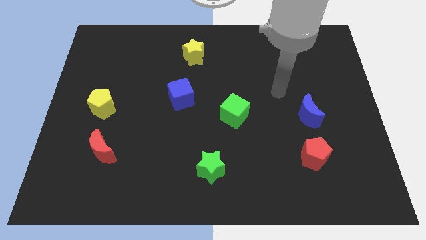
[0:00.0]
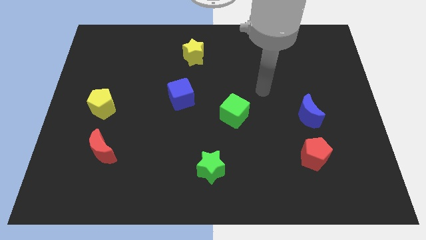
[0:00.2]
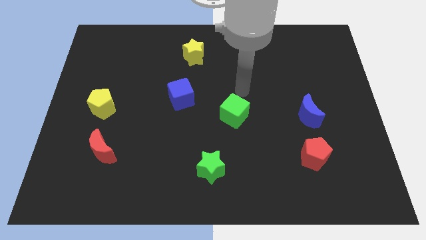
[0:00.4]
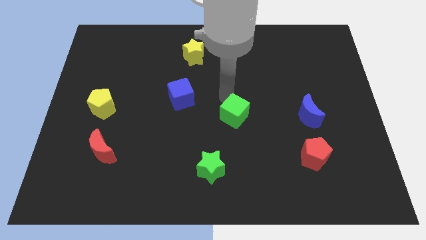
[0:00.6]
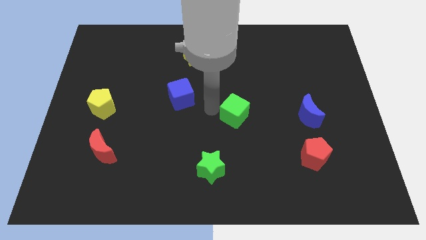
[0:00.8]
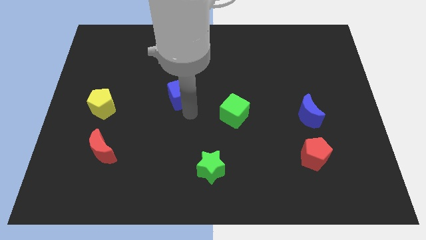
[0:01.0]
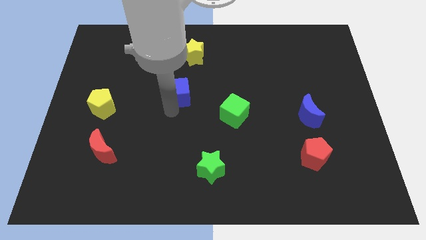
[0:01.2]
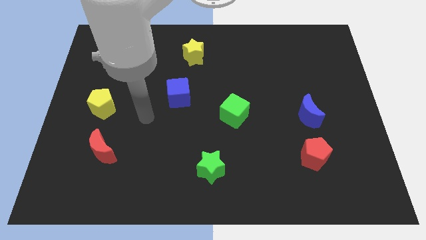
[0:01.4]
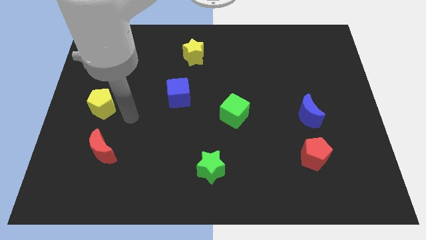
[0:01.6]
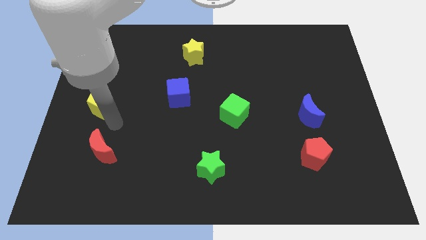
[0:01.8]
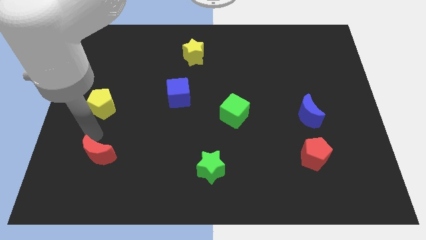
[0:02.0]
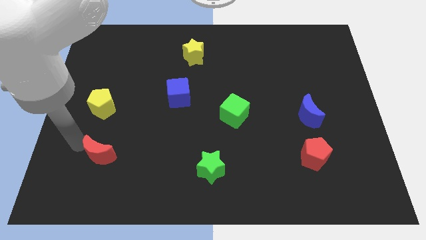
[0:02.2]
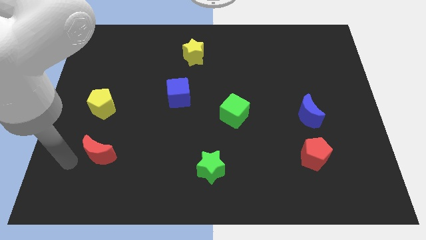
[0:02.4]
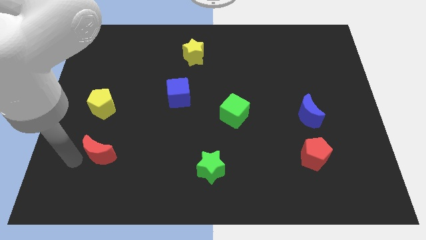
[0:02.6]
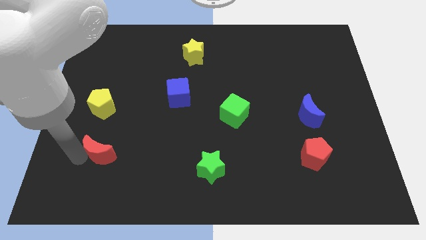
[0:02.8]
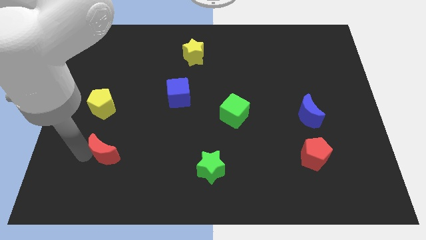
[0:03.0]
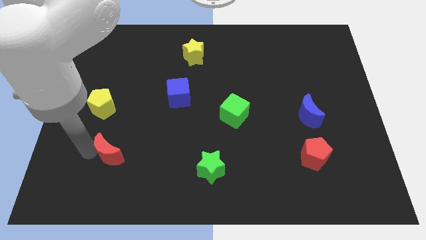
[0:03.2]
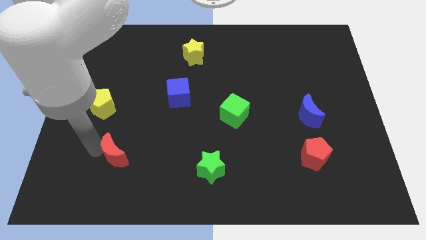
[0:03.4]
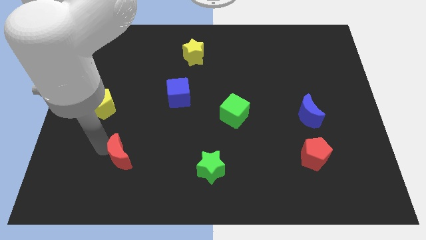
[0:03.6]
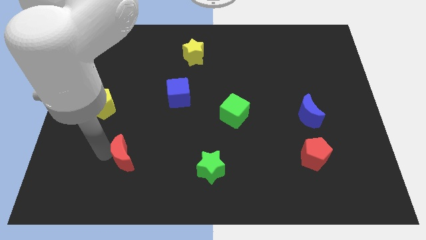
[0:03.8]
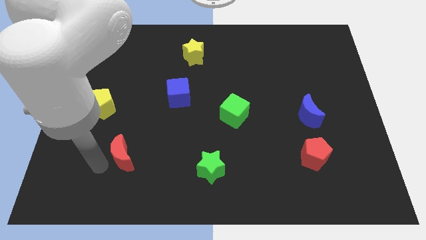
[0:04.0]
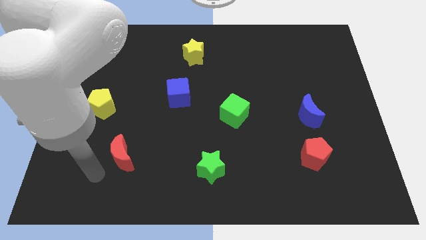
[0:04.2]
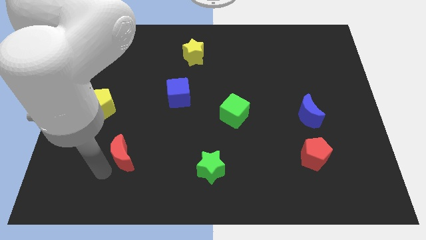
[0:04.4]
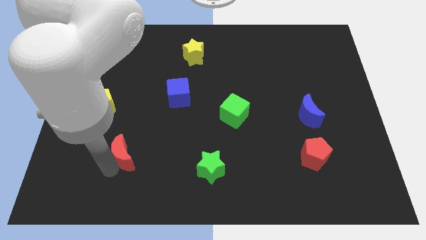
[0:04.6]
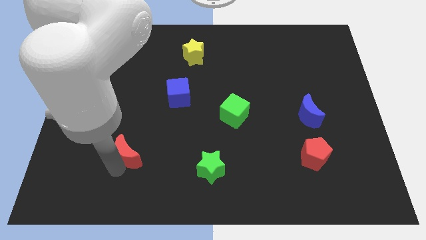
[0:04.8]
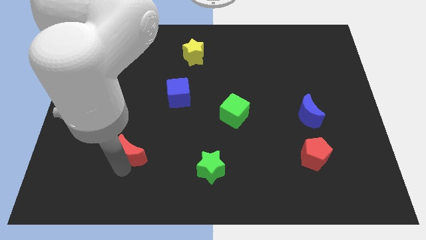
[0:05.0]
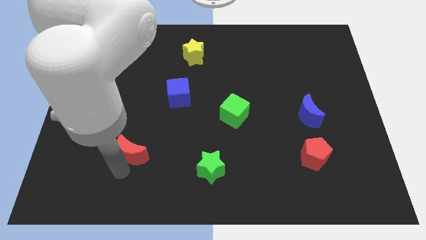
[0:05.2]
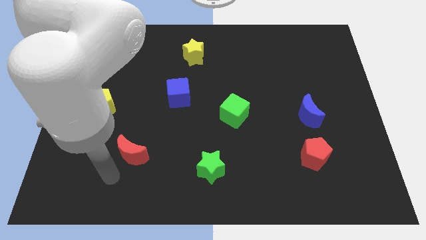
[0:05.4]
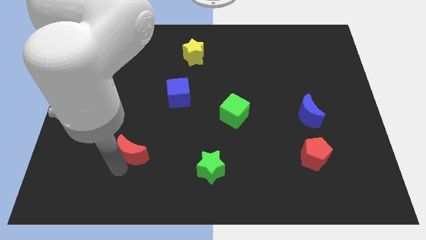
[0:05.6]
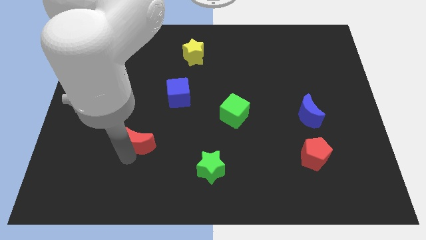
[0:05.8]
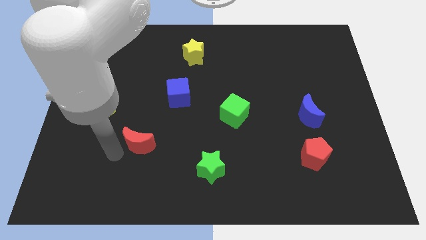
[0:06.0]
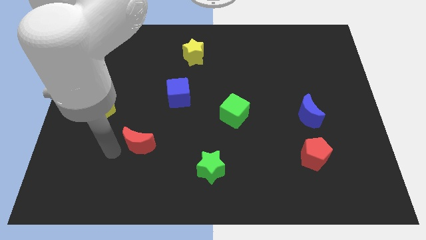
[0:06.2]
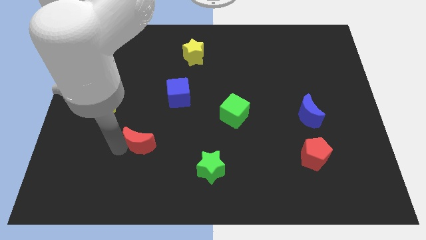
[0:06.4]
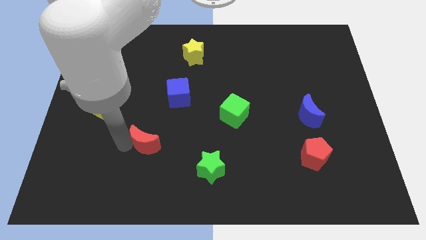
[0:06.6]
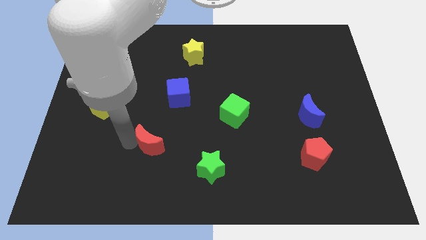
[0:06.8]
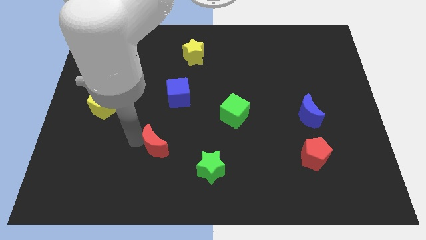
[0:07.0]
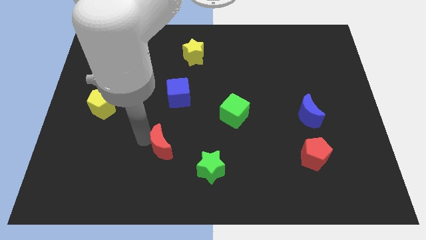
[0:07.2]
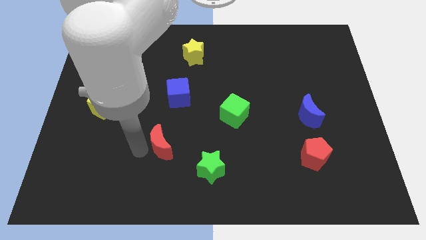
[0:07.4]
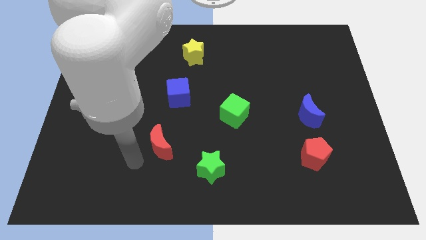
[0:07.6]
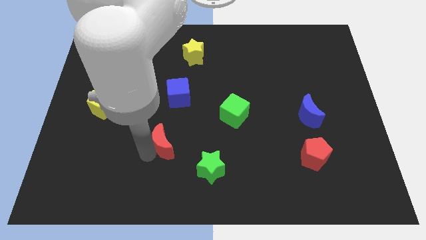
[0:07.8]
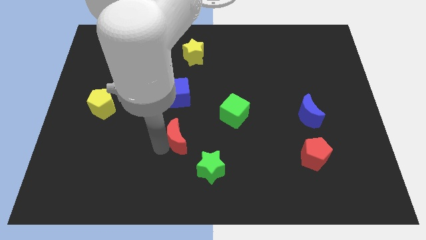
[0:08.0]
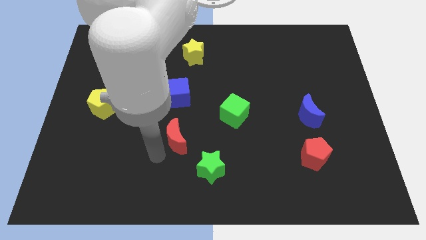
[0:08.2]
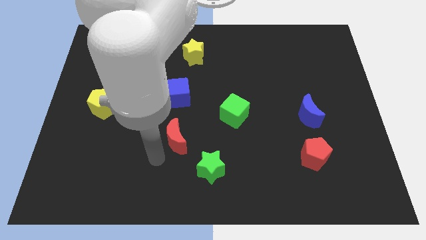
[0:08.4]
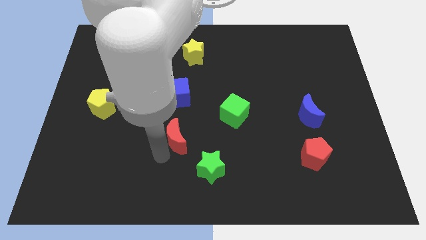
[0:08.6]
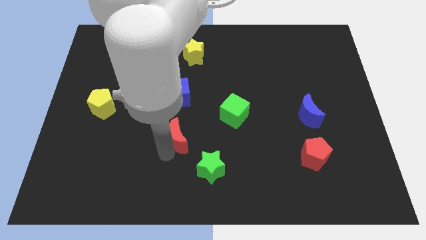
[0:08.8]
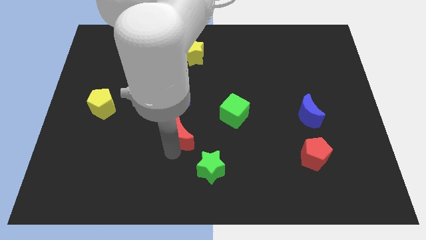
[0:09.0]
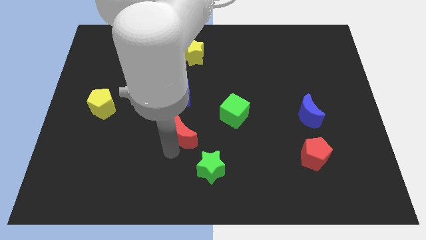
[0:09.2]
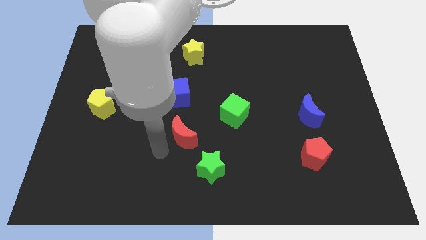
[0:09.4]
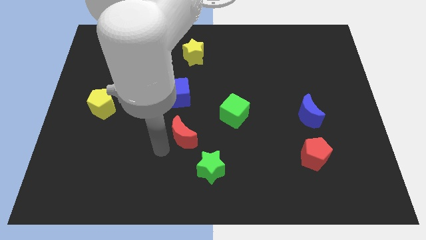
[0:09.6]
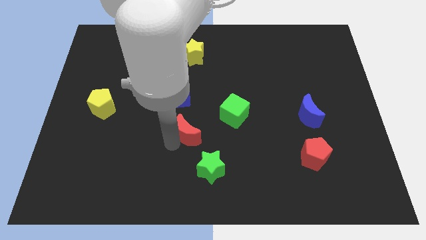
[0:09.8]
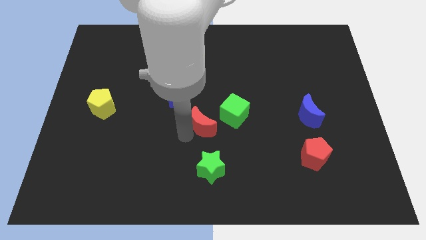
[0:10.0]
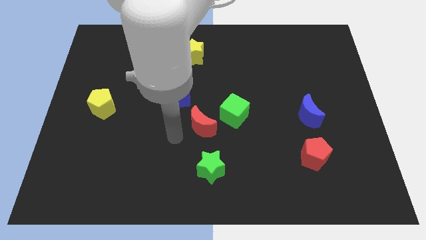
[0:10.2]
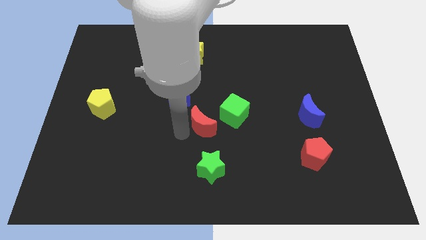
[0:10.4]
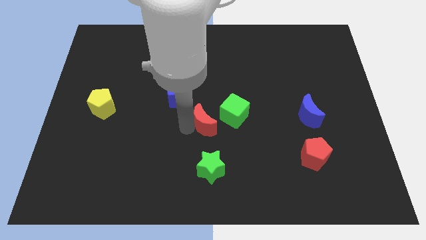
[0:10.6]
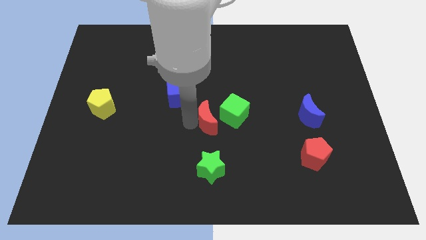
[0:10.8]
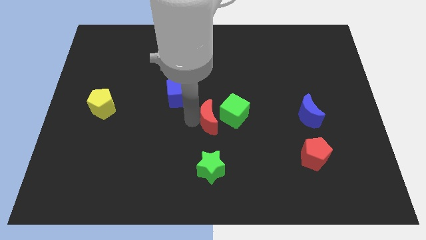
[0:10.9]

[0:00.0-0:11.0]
move the red moon close to the green cube

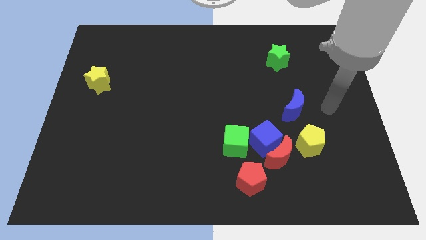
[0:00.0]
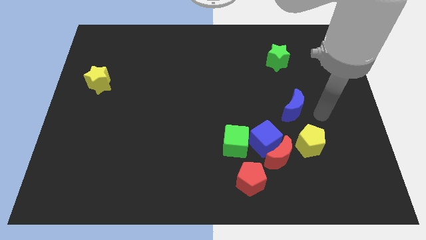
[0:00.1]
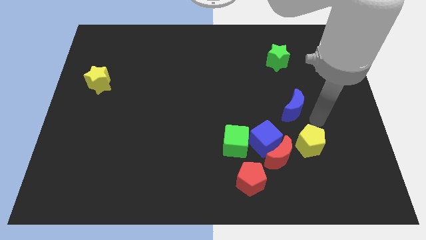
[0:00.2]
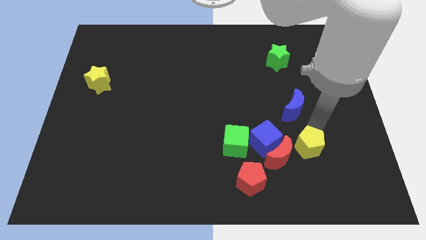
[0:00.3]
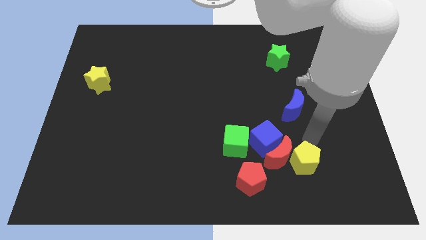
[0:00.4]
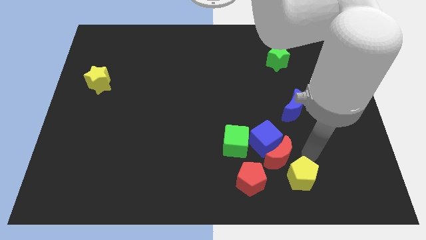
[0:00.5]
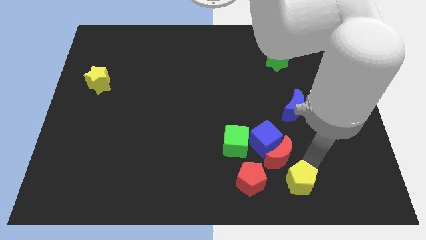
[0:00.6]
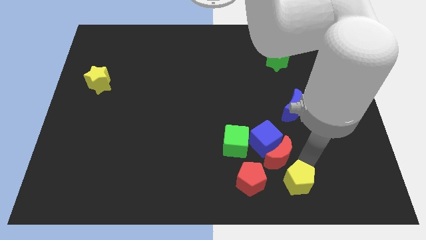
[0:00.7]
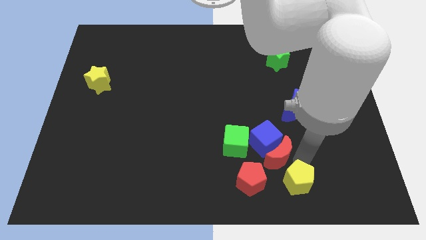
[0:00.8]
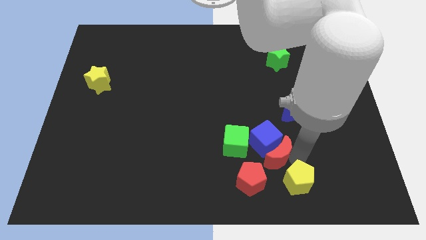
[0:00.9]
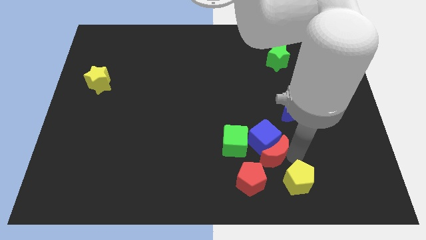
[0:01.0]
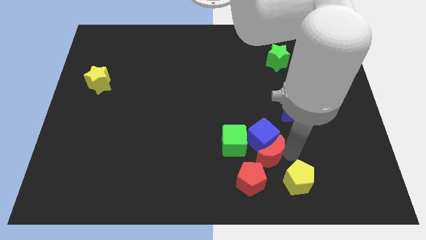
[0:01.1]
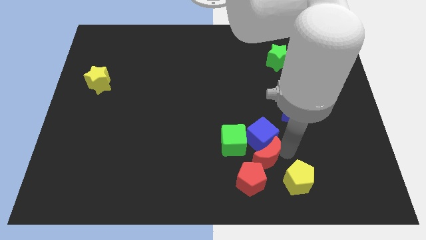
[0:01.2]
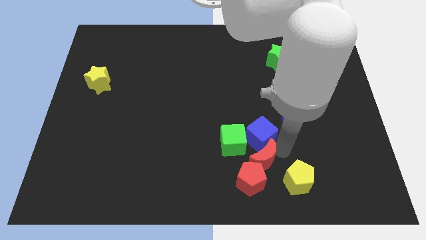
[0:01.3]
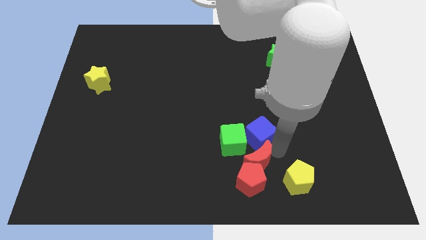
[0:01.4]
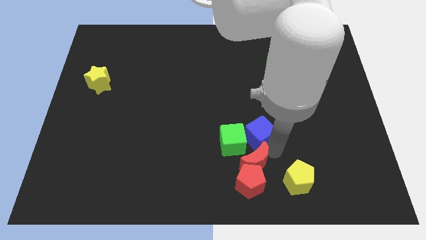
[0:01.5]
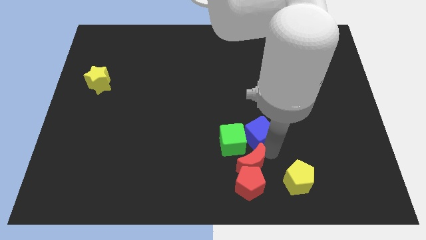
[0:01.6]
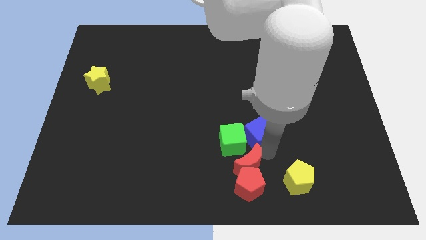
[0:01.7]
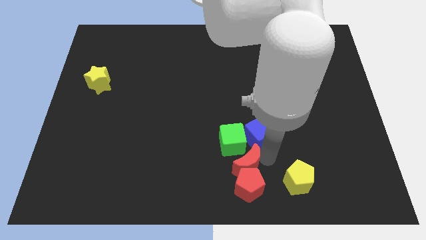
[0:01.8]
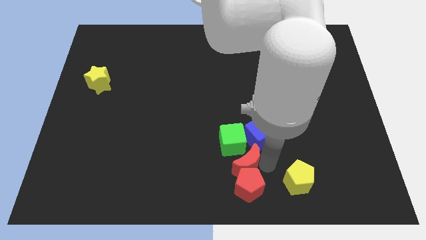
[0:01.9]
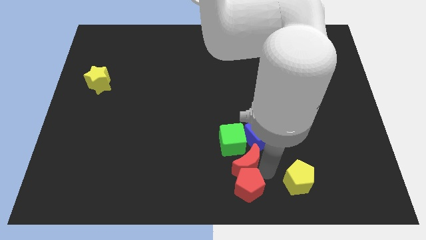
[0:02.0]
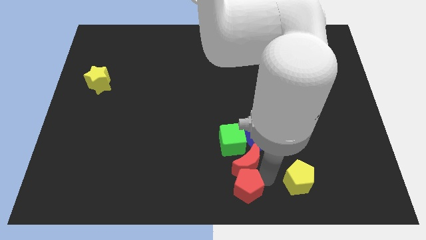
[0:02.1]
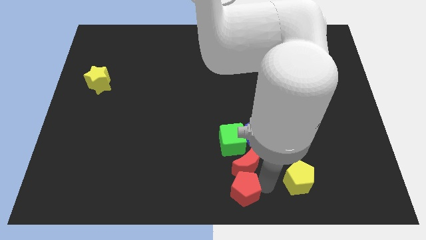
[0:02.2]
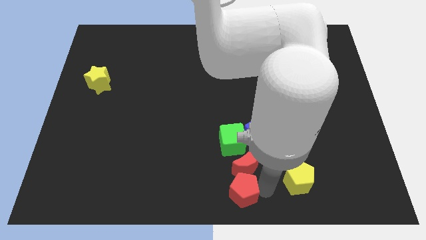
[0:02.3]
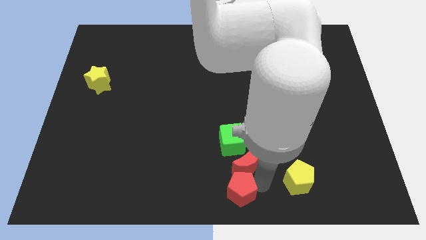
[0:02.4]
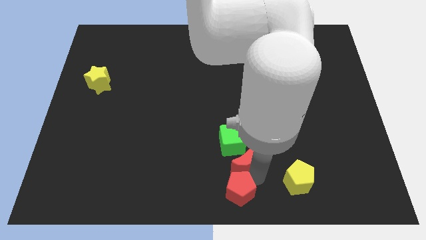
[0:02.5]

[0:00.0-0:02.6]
slide the red moon to the green cube
